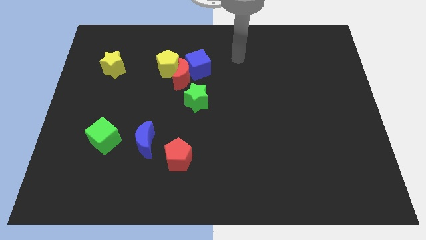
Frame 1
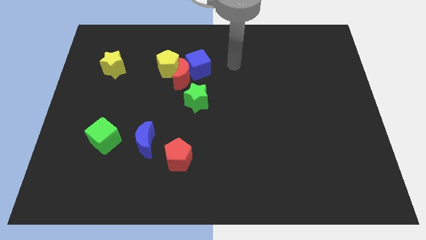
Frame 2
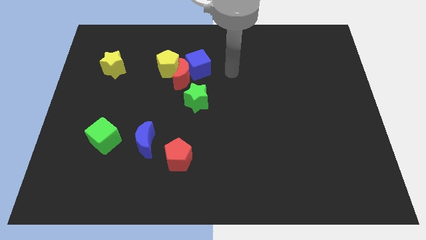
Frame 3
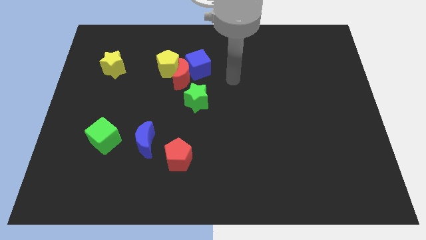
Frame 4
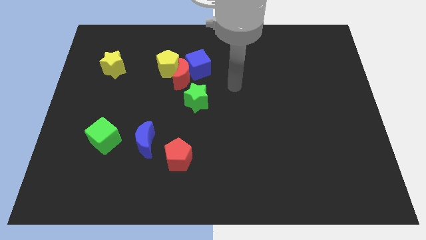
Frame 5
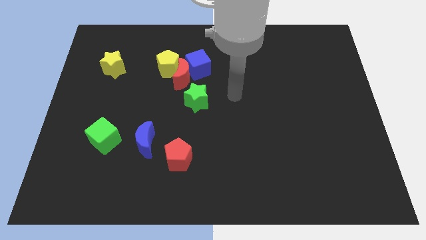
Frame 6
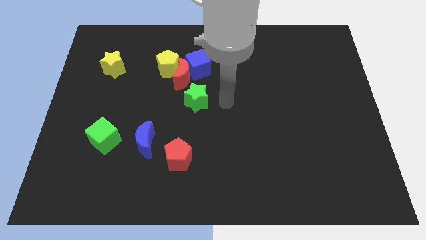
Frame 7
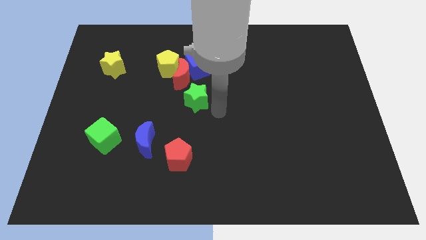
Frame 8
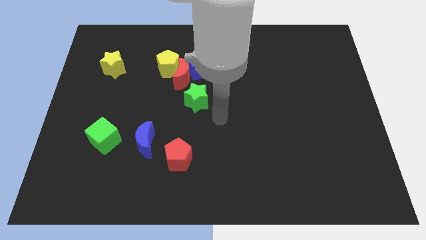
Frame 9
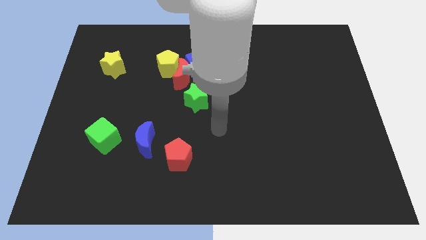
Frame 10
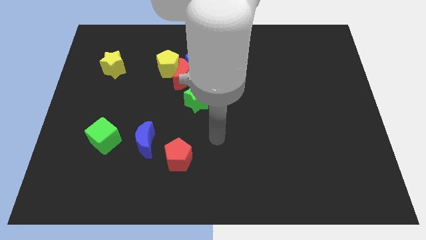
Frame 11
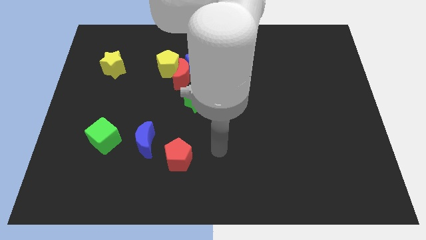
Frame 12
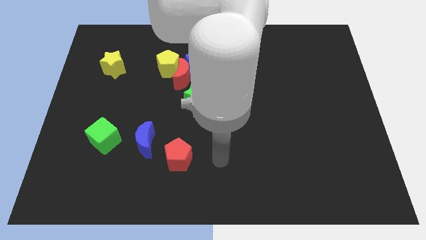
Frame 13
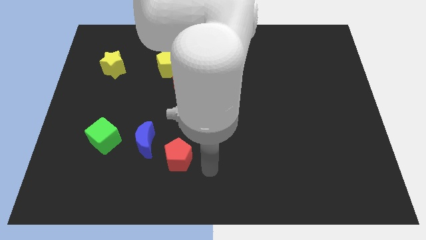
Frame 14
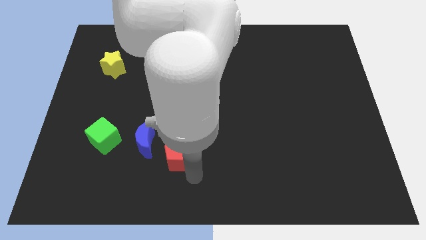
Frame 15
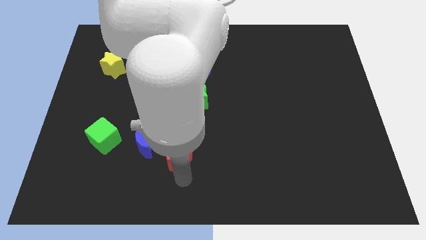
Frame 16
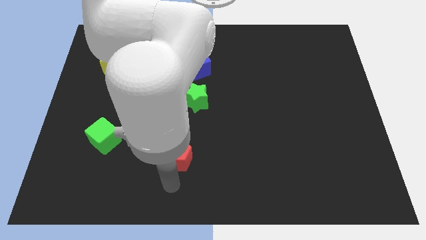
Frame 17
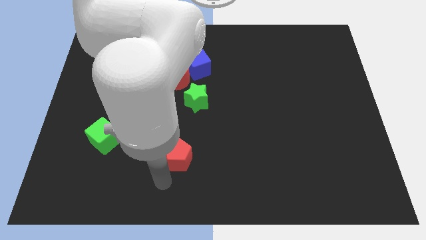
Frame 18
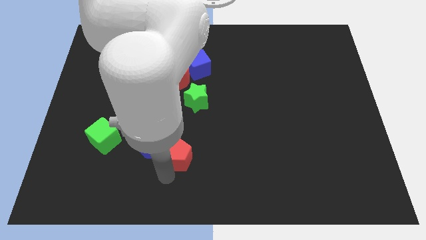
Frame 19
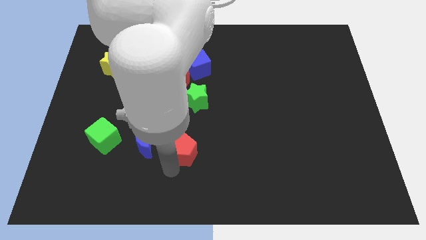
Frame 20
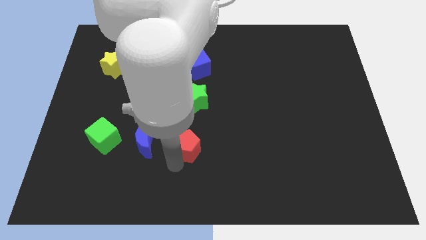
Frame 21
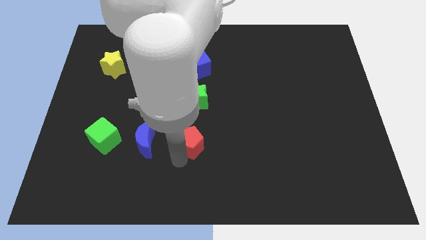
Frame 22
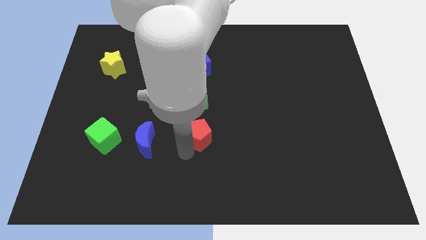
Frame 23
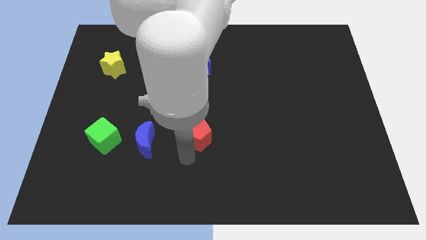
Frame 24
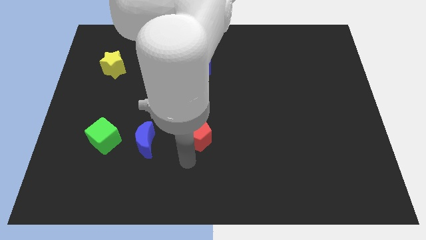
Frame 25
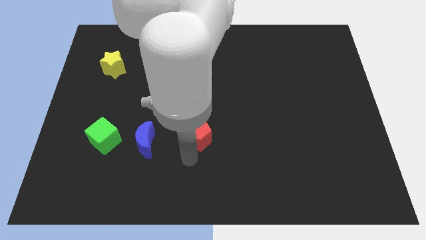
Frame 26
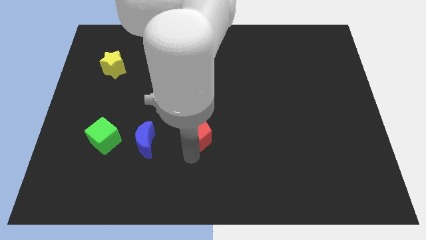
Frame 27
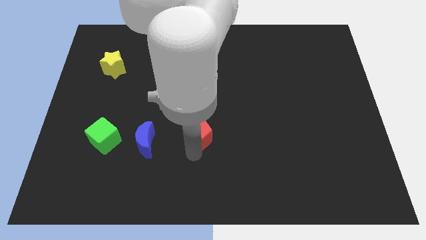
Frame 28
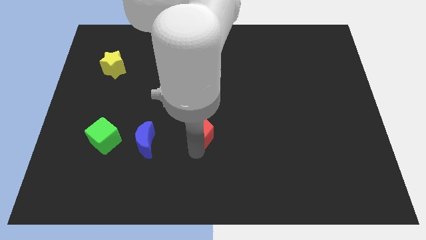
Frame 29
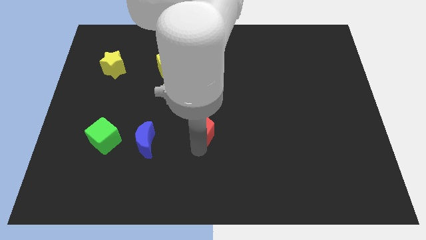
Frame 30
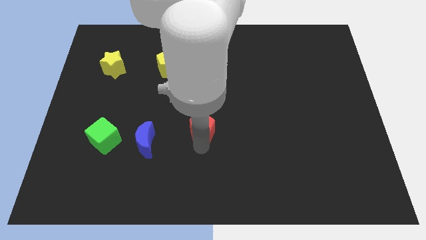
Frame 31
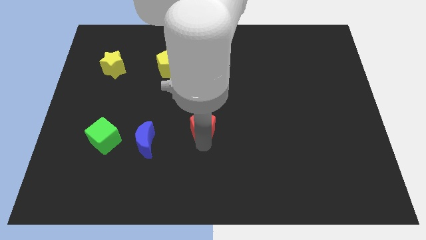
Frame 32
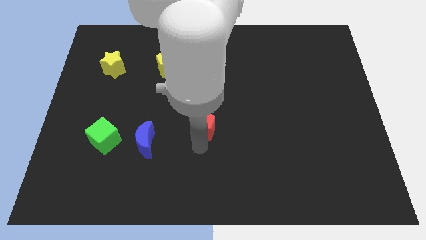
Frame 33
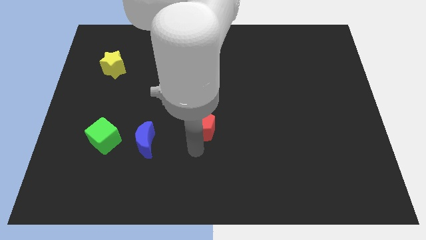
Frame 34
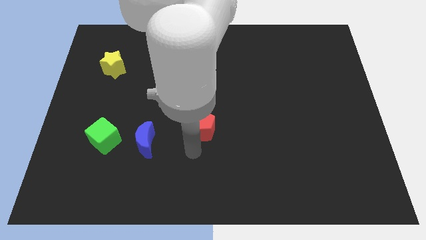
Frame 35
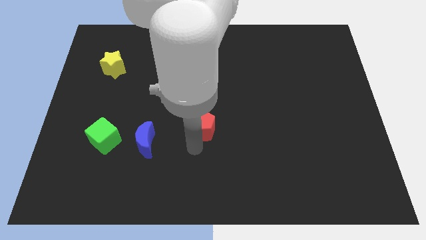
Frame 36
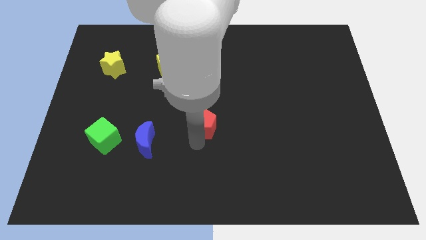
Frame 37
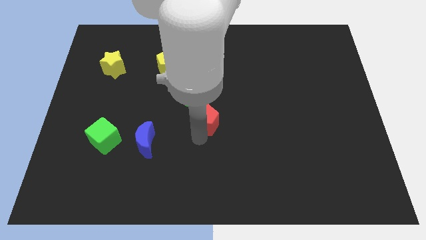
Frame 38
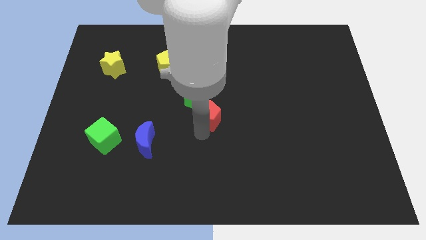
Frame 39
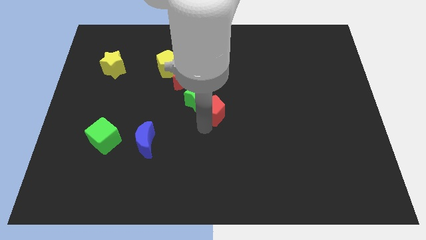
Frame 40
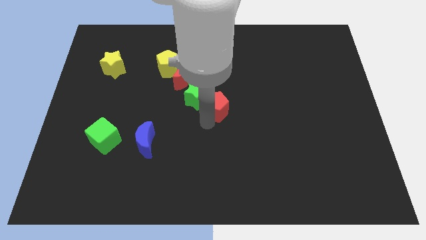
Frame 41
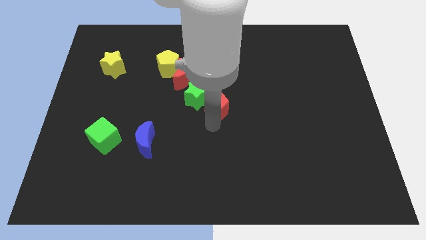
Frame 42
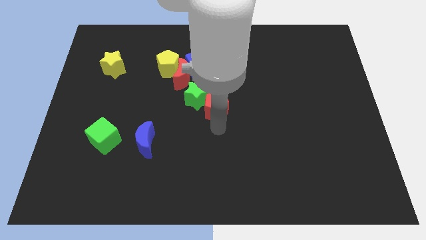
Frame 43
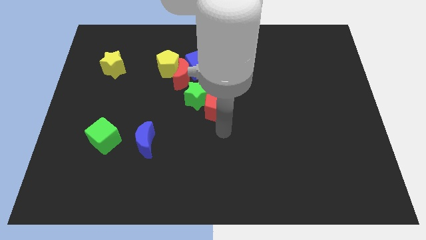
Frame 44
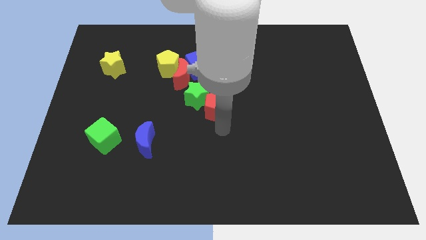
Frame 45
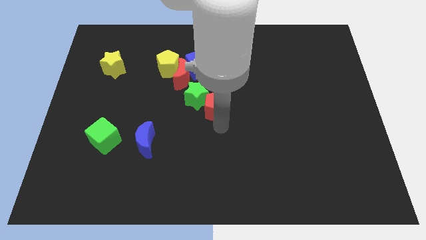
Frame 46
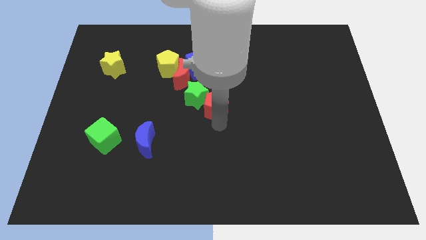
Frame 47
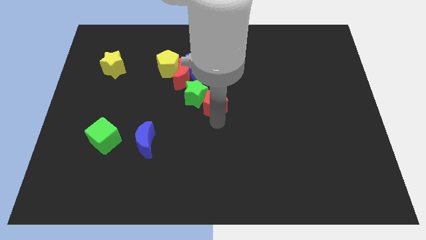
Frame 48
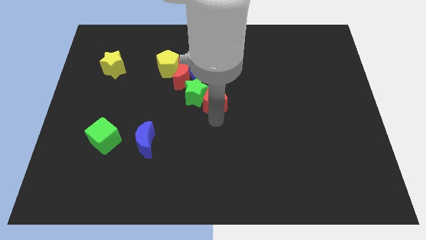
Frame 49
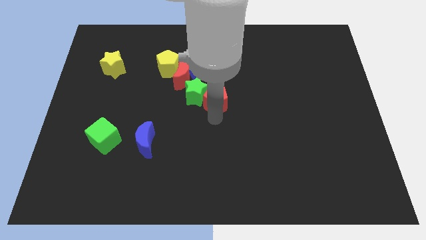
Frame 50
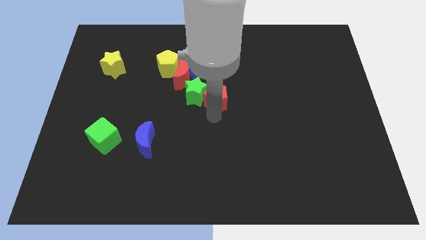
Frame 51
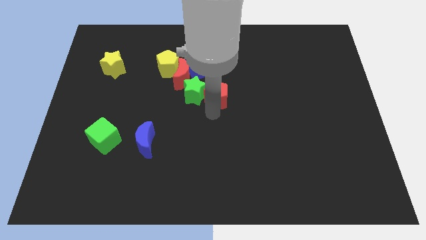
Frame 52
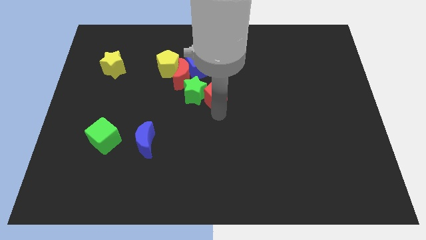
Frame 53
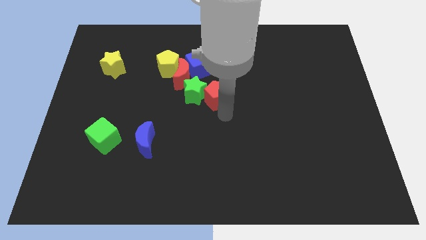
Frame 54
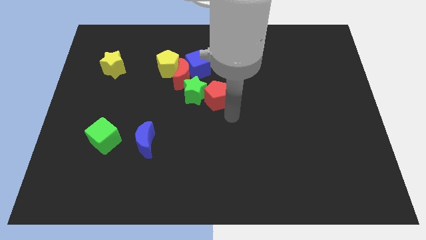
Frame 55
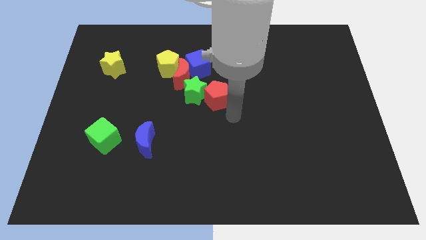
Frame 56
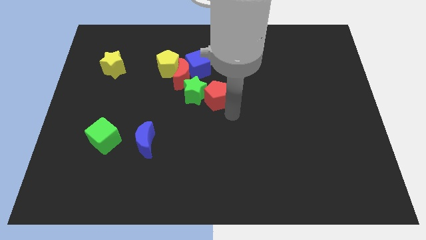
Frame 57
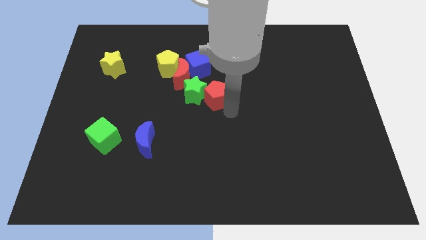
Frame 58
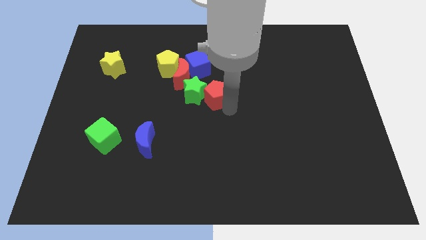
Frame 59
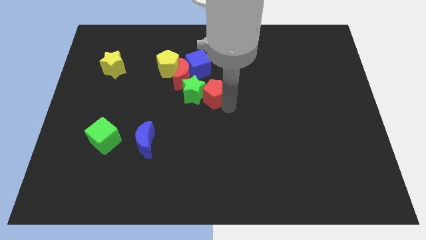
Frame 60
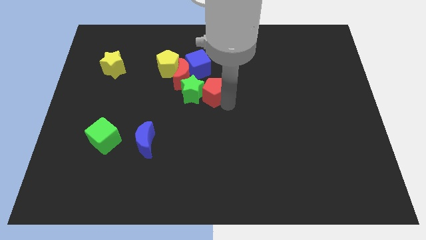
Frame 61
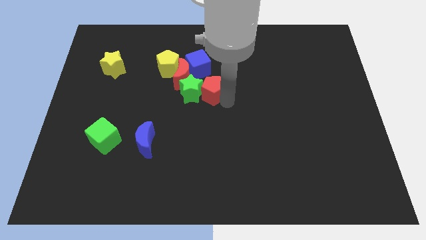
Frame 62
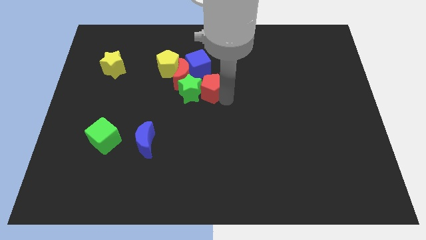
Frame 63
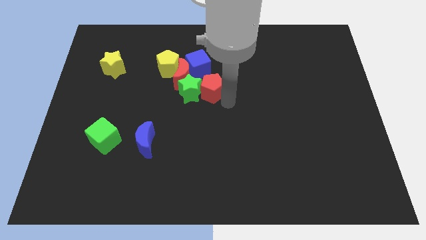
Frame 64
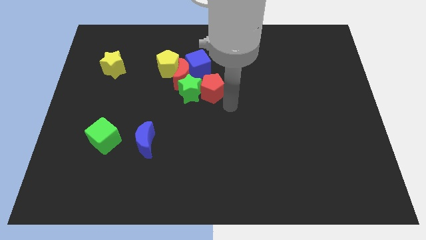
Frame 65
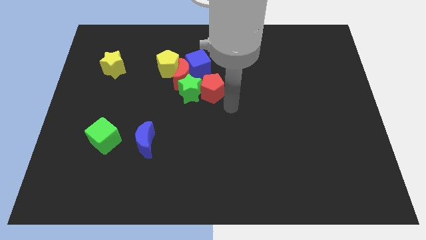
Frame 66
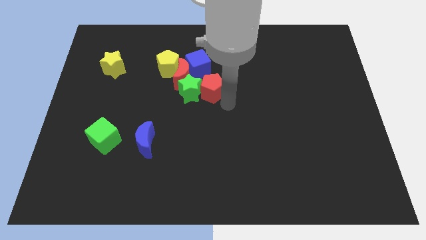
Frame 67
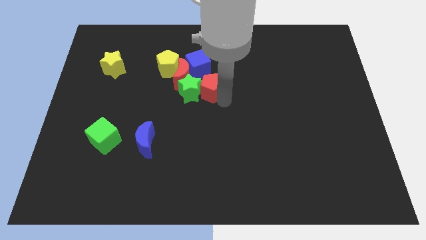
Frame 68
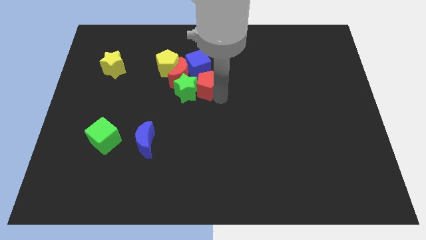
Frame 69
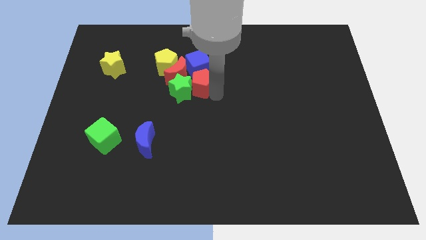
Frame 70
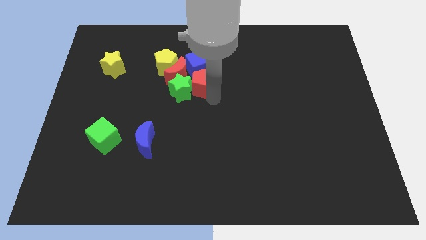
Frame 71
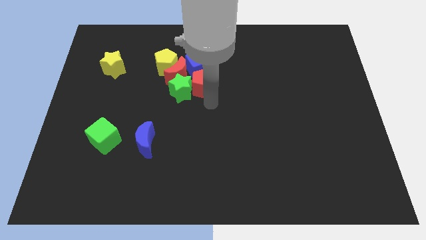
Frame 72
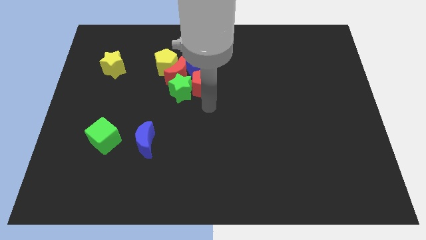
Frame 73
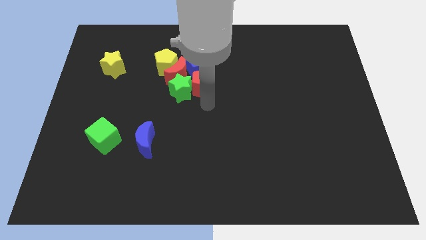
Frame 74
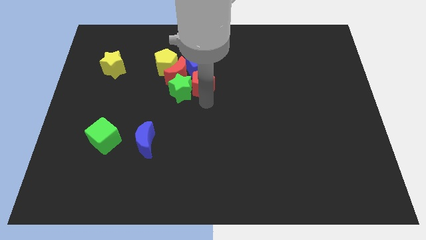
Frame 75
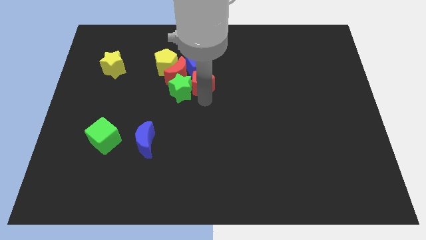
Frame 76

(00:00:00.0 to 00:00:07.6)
push the red pentagon close to the blue cube
